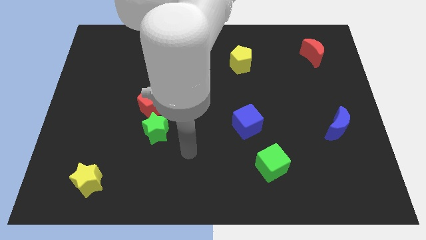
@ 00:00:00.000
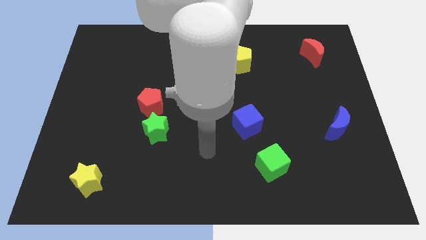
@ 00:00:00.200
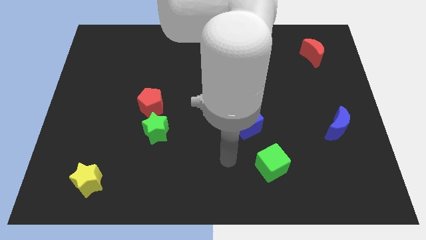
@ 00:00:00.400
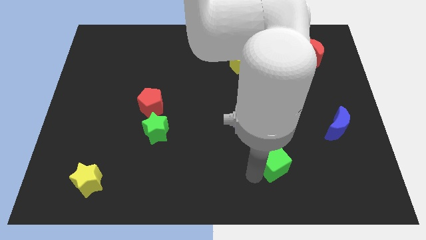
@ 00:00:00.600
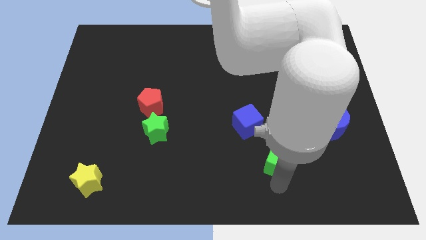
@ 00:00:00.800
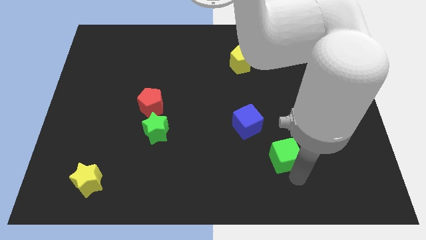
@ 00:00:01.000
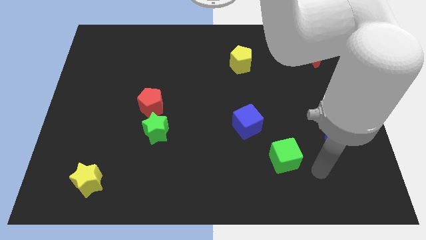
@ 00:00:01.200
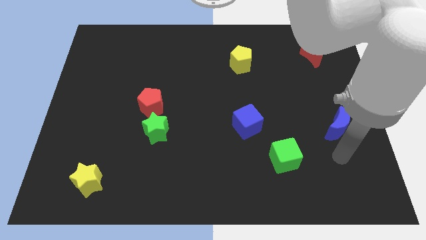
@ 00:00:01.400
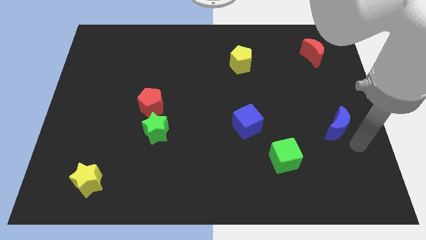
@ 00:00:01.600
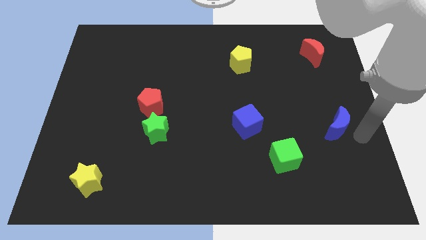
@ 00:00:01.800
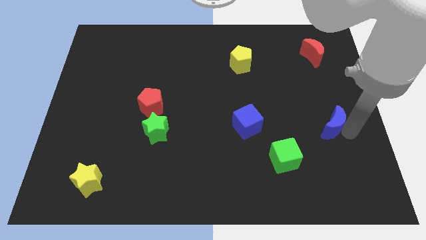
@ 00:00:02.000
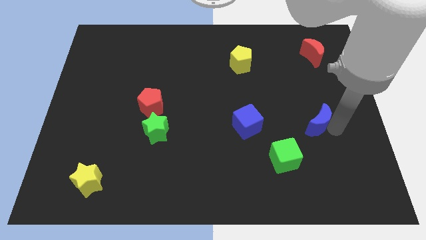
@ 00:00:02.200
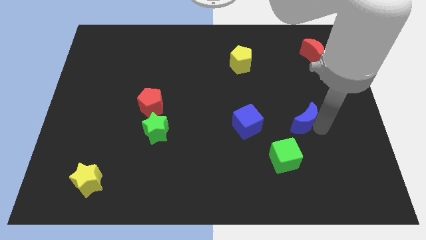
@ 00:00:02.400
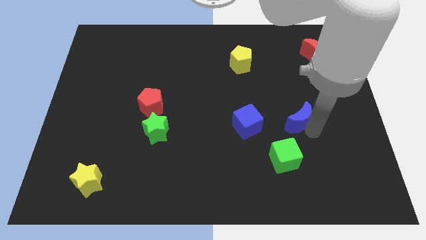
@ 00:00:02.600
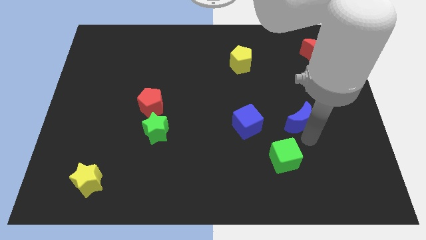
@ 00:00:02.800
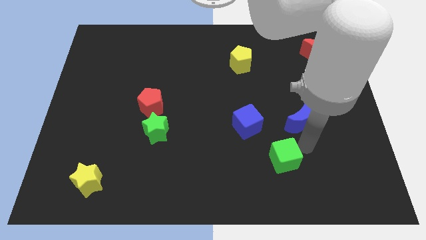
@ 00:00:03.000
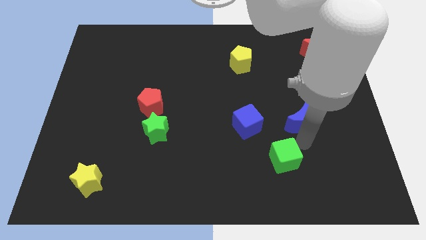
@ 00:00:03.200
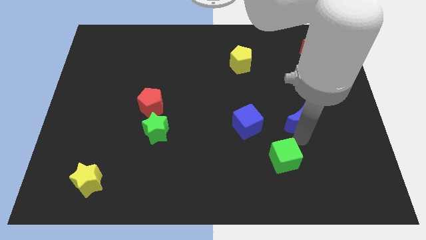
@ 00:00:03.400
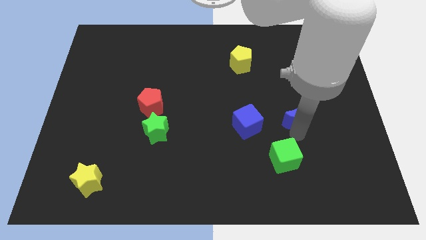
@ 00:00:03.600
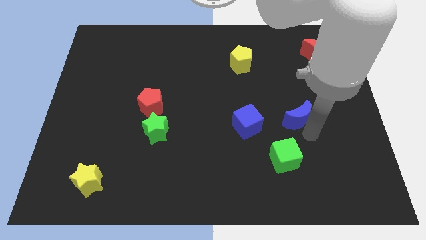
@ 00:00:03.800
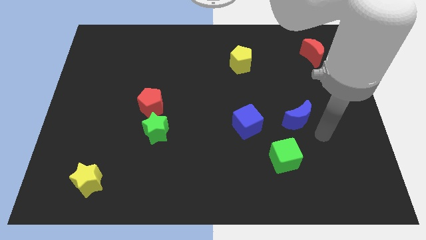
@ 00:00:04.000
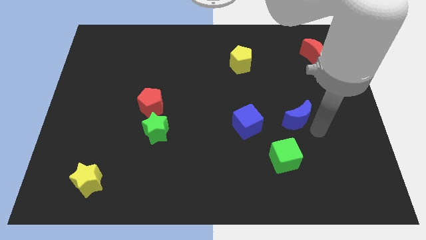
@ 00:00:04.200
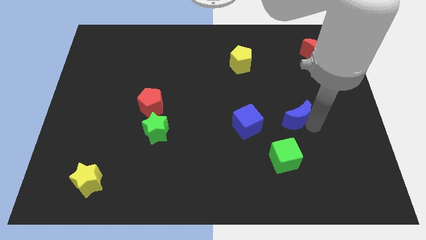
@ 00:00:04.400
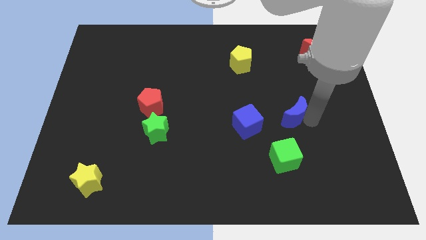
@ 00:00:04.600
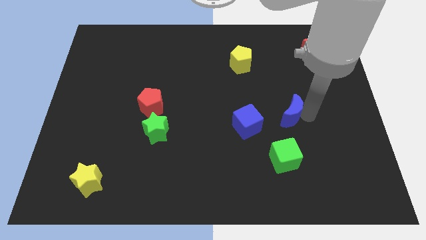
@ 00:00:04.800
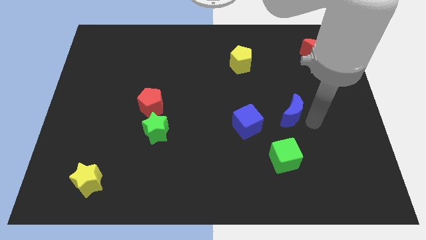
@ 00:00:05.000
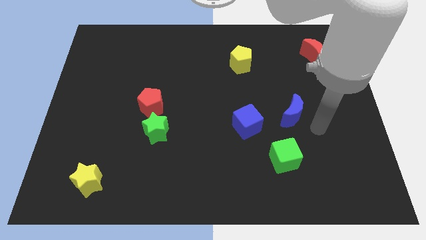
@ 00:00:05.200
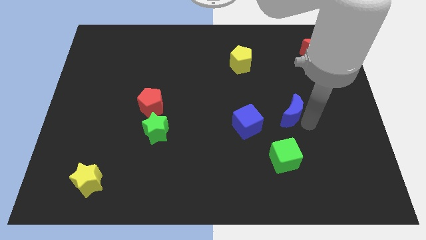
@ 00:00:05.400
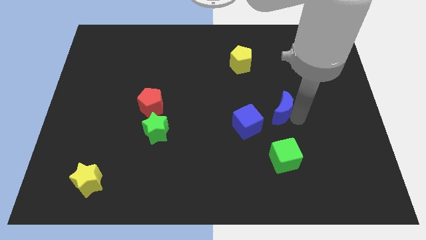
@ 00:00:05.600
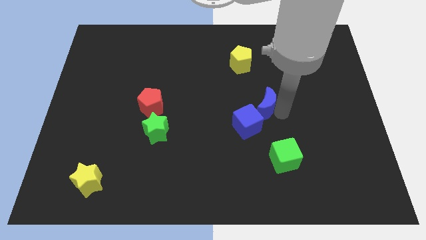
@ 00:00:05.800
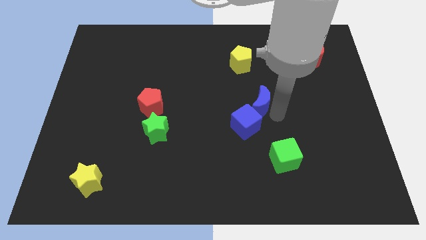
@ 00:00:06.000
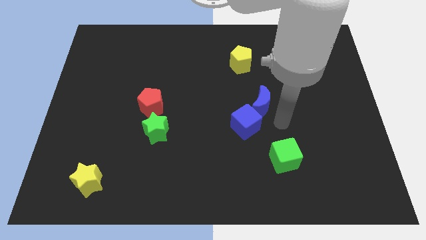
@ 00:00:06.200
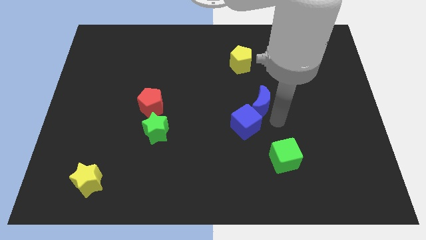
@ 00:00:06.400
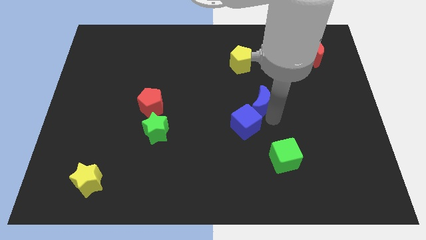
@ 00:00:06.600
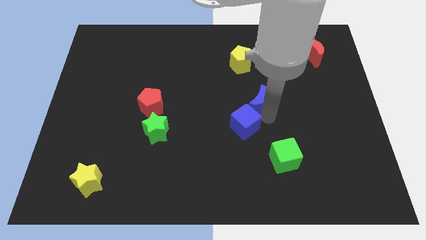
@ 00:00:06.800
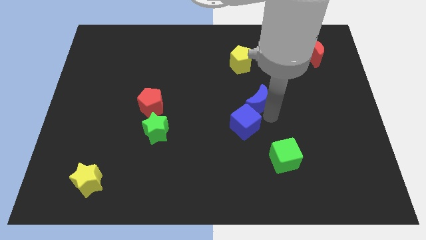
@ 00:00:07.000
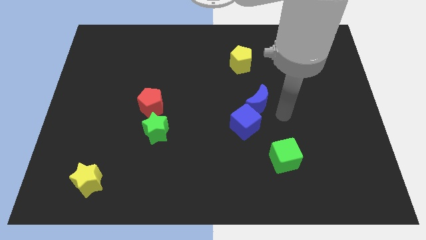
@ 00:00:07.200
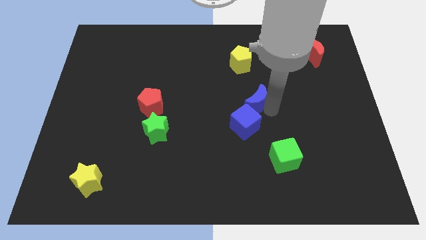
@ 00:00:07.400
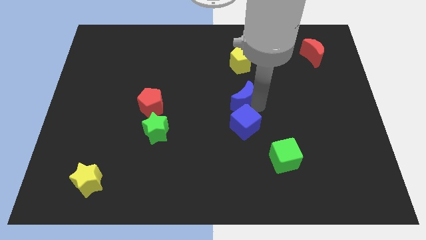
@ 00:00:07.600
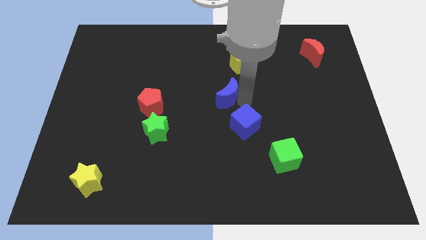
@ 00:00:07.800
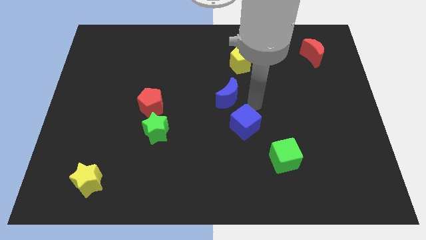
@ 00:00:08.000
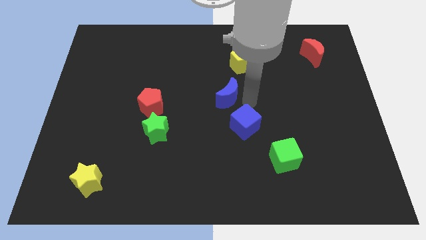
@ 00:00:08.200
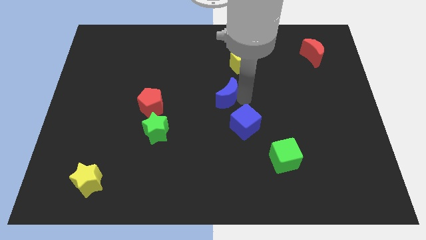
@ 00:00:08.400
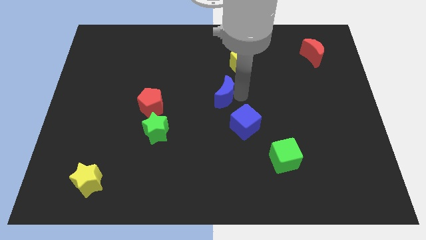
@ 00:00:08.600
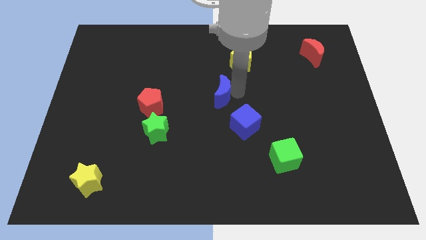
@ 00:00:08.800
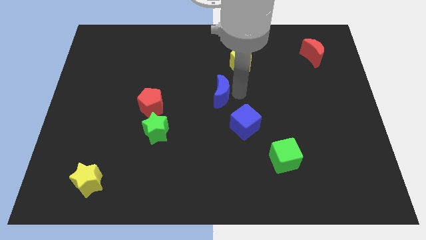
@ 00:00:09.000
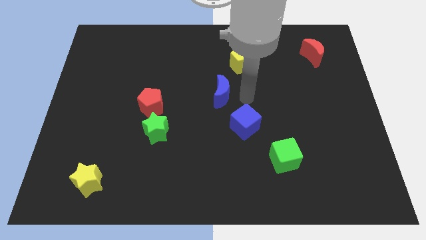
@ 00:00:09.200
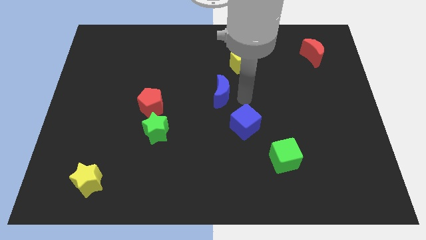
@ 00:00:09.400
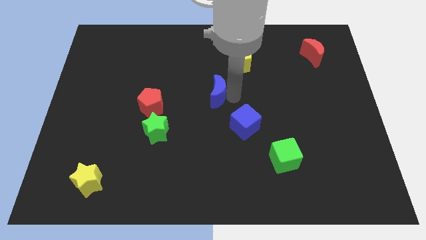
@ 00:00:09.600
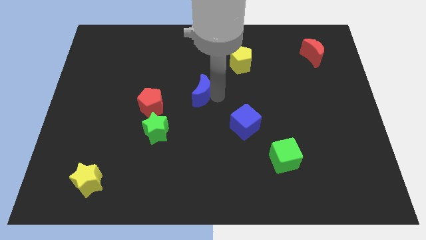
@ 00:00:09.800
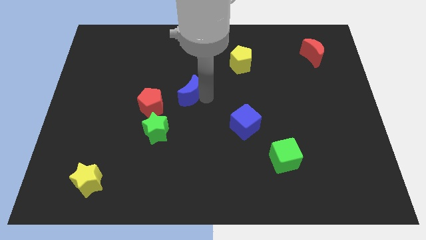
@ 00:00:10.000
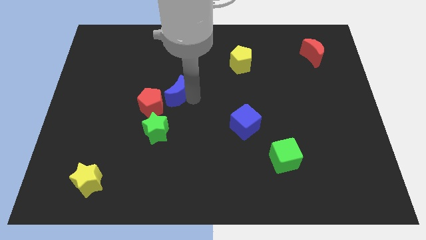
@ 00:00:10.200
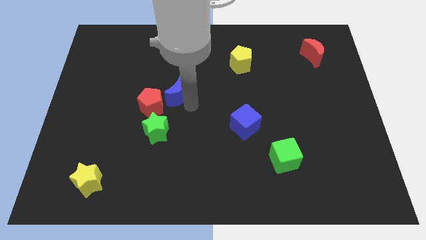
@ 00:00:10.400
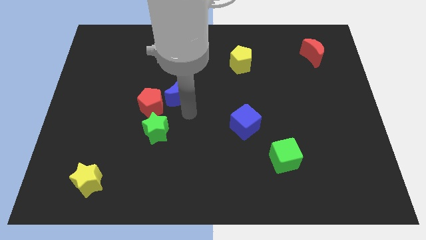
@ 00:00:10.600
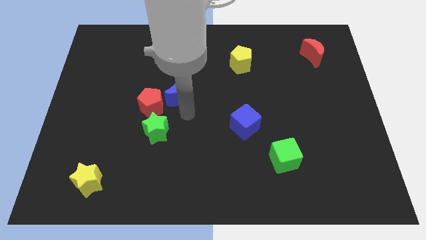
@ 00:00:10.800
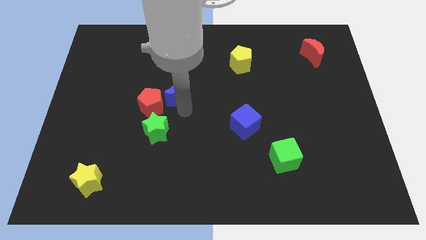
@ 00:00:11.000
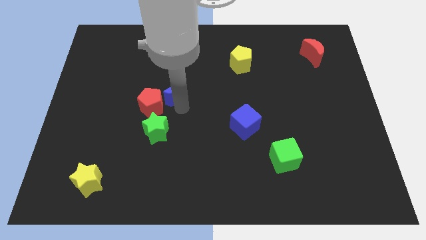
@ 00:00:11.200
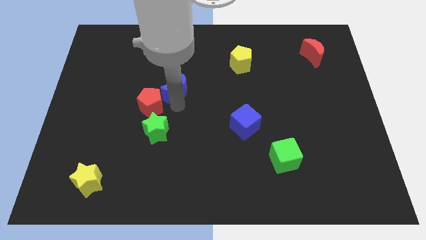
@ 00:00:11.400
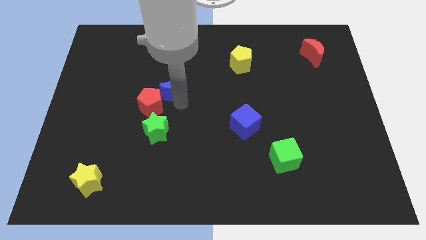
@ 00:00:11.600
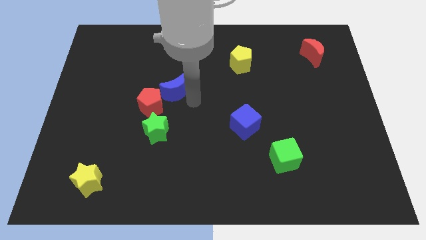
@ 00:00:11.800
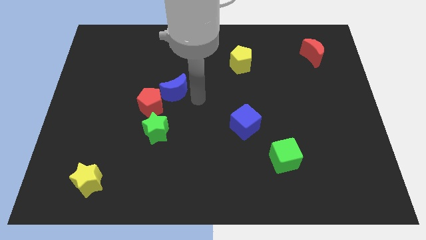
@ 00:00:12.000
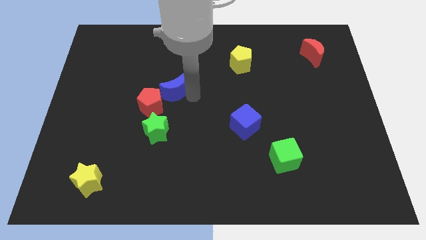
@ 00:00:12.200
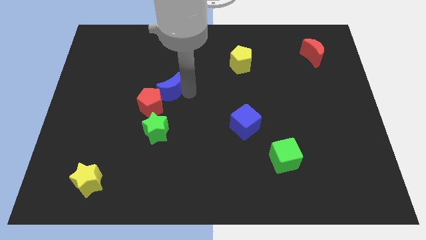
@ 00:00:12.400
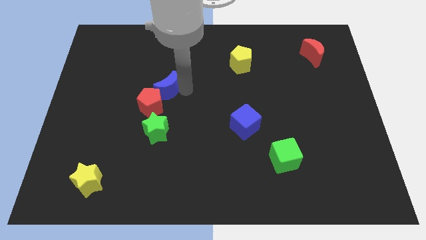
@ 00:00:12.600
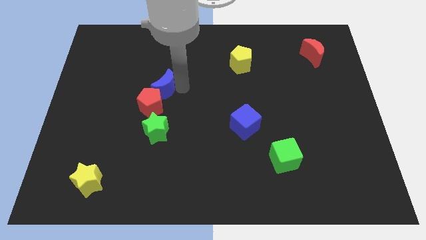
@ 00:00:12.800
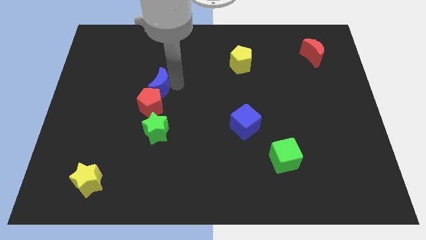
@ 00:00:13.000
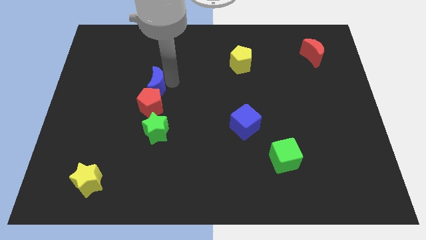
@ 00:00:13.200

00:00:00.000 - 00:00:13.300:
slide the blue moon to the top left side of the red pentagon

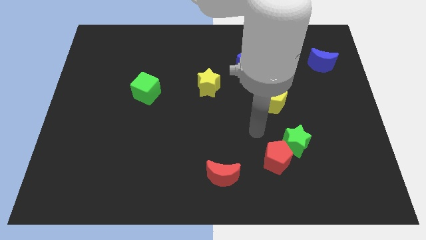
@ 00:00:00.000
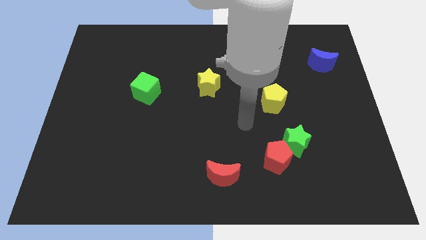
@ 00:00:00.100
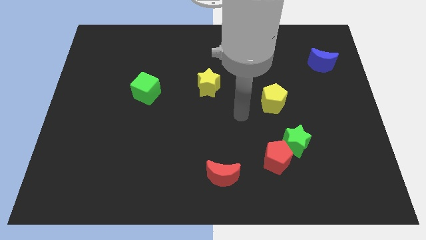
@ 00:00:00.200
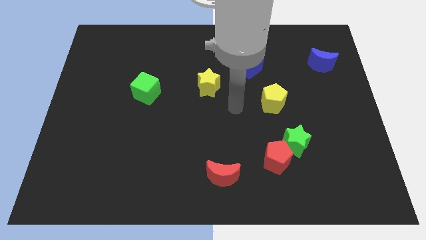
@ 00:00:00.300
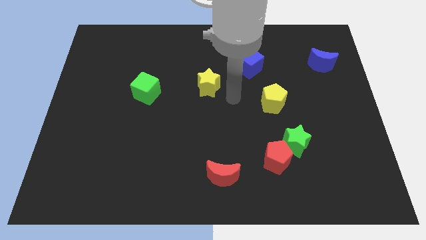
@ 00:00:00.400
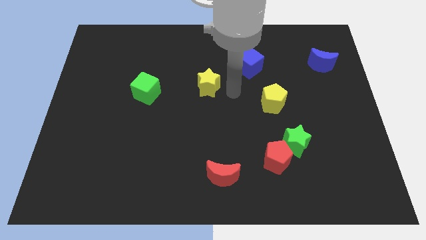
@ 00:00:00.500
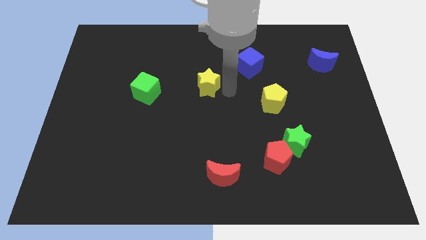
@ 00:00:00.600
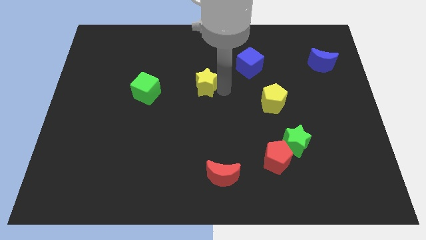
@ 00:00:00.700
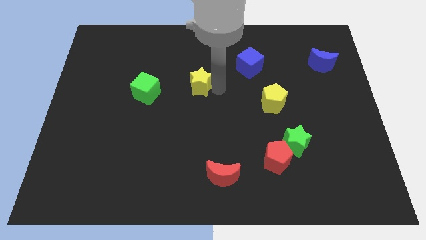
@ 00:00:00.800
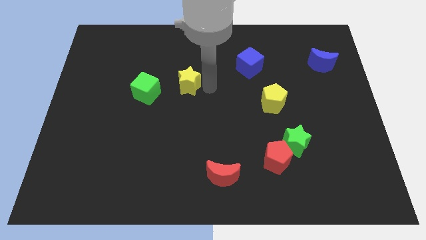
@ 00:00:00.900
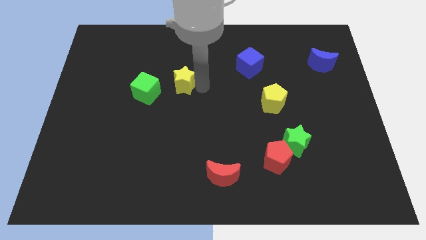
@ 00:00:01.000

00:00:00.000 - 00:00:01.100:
push the yellow star to the top right of the green cube
